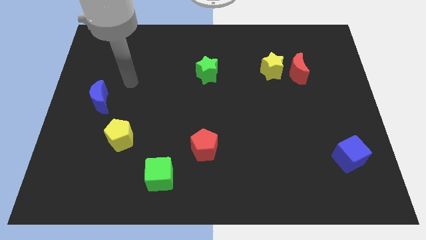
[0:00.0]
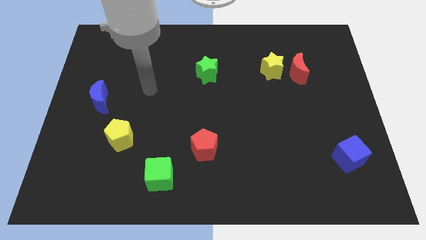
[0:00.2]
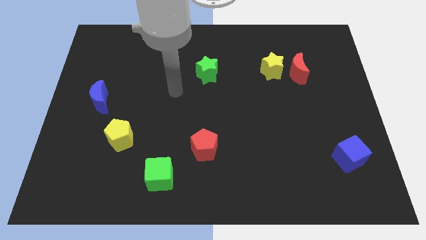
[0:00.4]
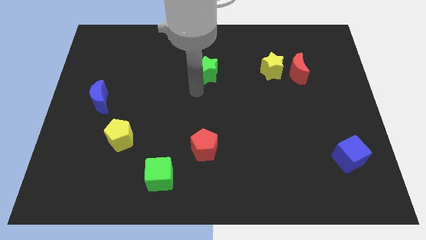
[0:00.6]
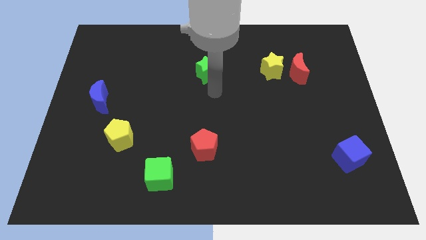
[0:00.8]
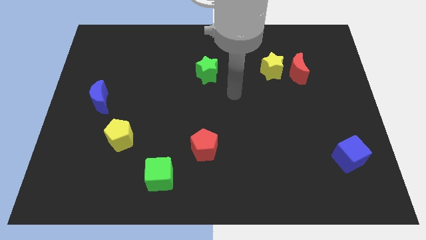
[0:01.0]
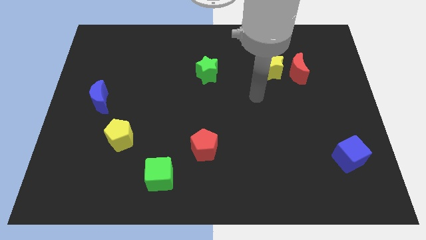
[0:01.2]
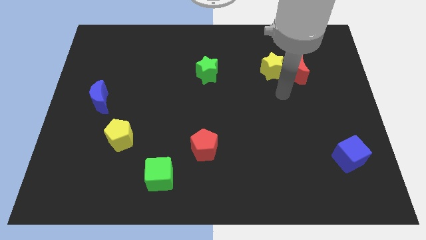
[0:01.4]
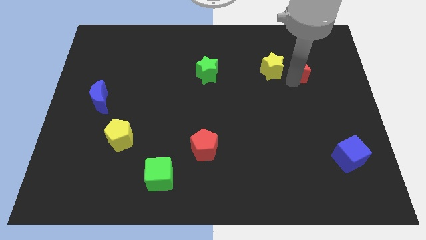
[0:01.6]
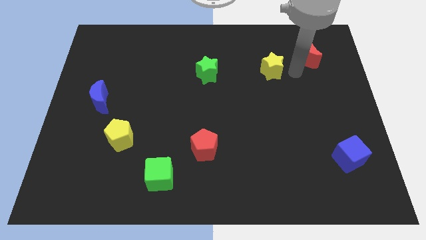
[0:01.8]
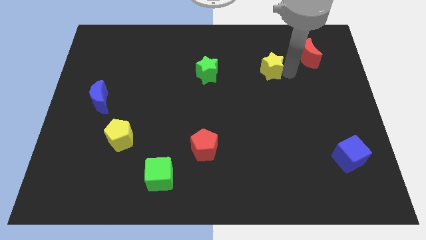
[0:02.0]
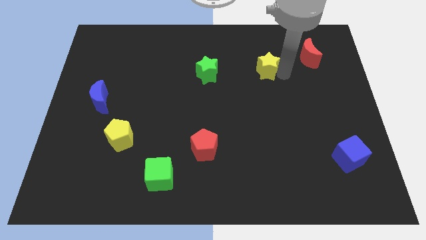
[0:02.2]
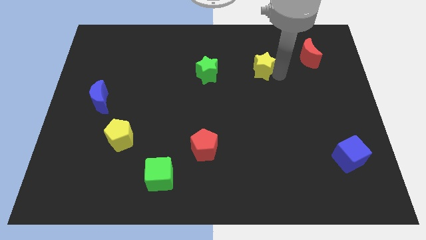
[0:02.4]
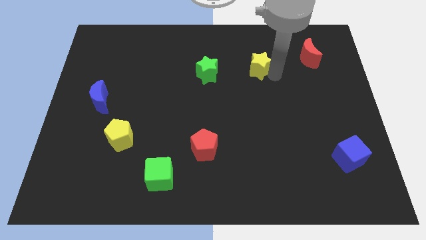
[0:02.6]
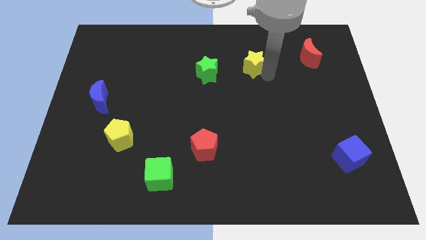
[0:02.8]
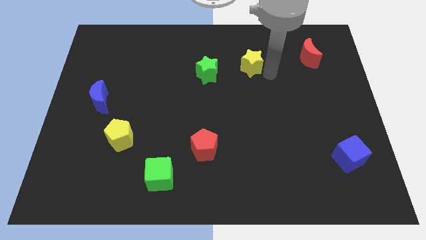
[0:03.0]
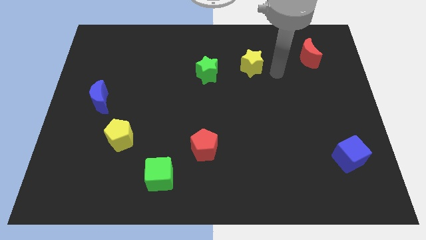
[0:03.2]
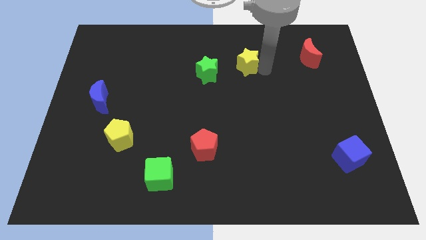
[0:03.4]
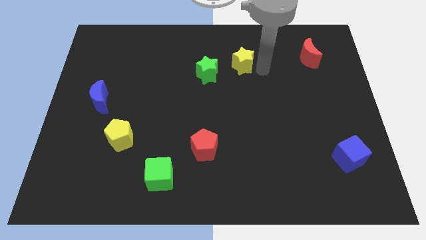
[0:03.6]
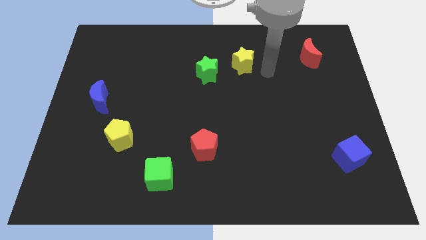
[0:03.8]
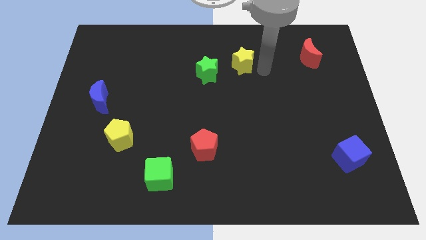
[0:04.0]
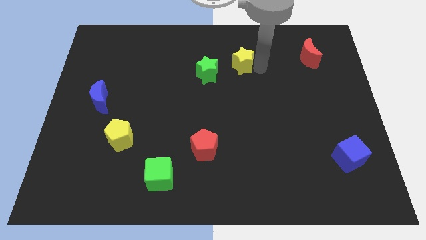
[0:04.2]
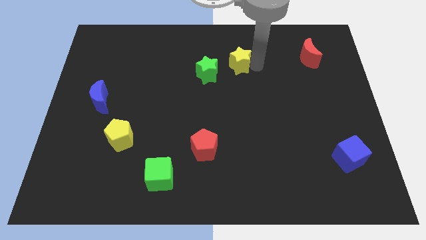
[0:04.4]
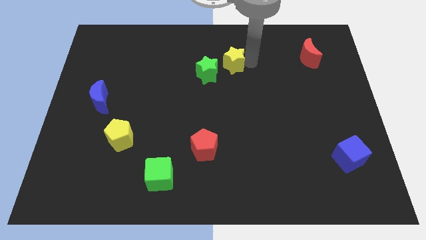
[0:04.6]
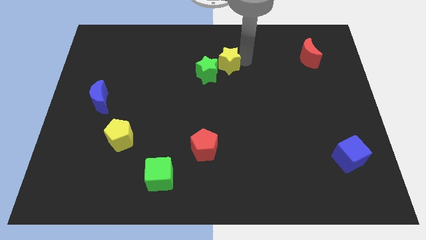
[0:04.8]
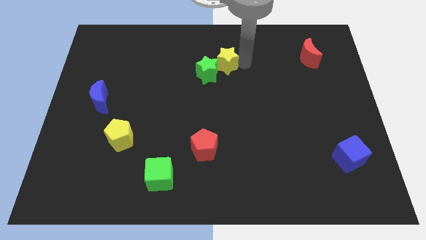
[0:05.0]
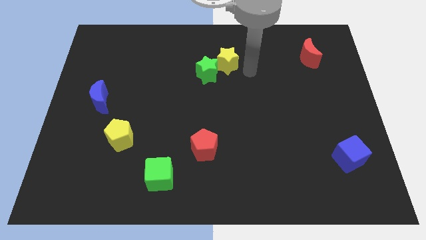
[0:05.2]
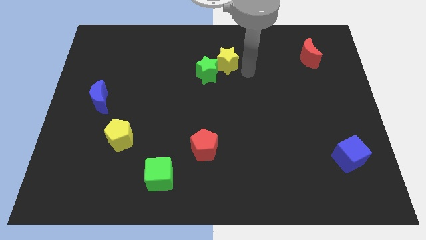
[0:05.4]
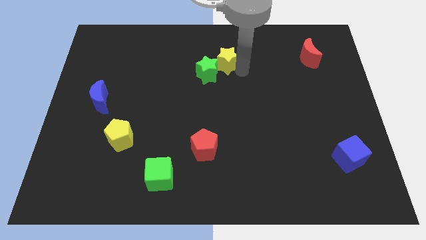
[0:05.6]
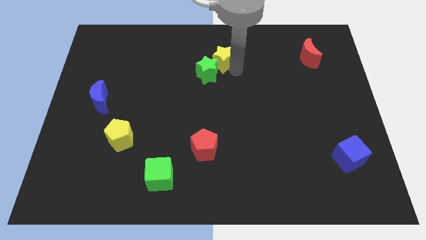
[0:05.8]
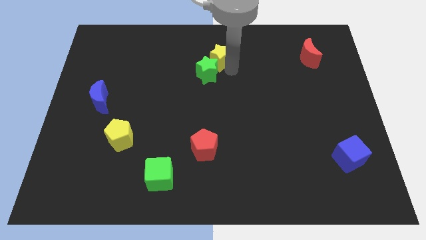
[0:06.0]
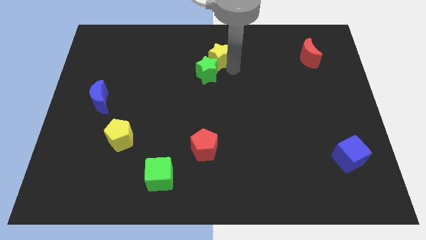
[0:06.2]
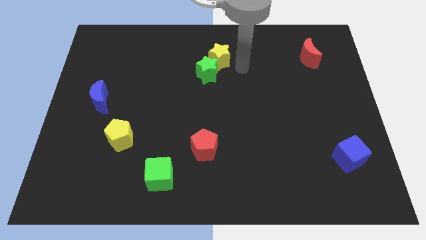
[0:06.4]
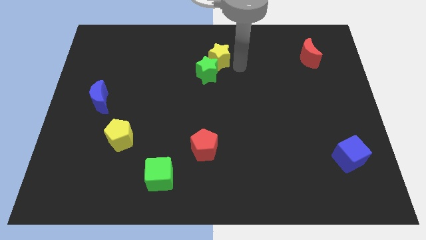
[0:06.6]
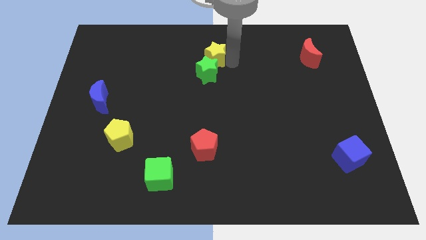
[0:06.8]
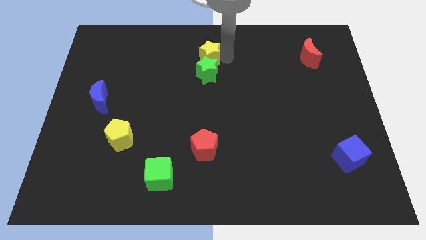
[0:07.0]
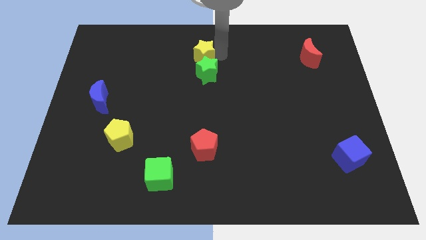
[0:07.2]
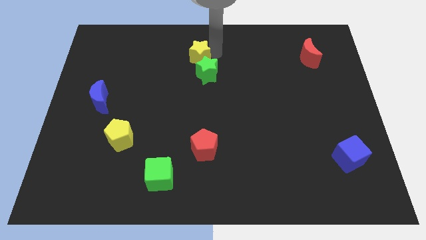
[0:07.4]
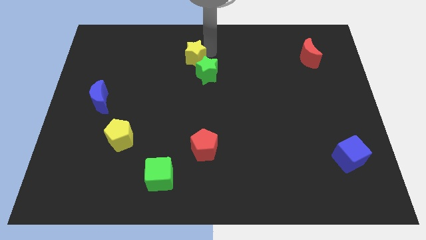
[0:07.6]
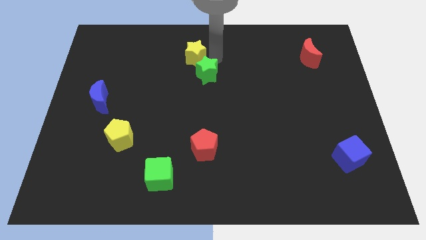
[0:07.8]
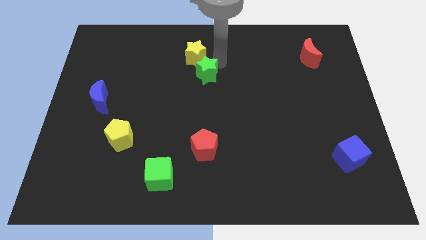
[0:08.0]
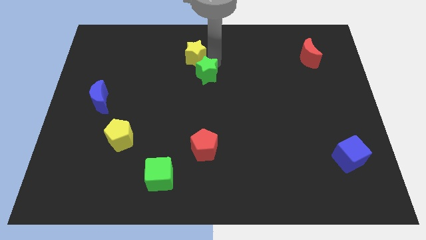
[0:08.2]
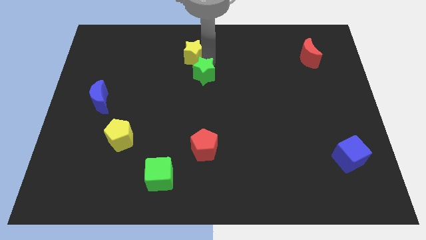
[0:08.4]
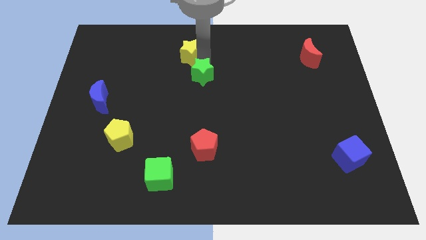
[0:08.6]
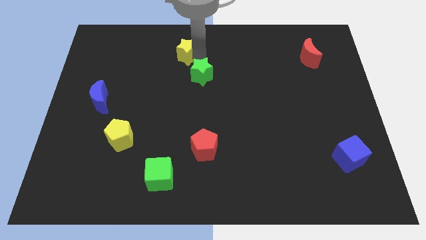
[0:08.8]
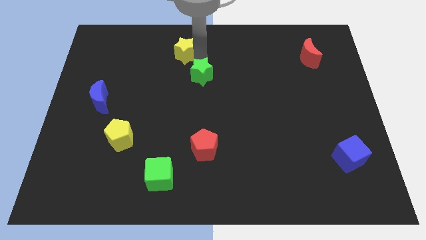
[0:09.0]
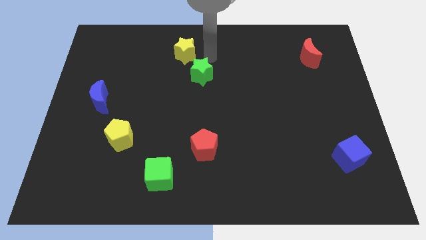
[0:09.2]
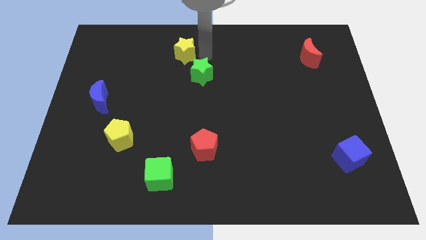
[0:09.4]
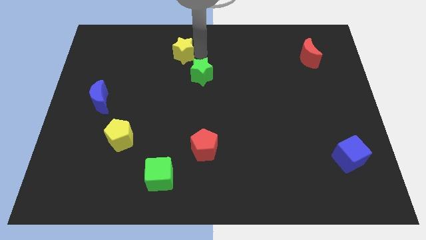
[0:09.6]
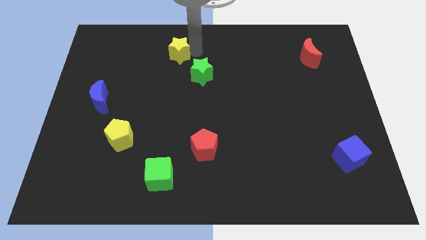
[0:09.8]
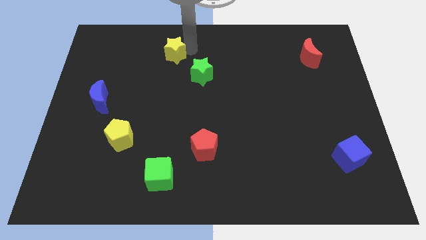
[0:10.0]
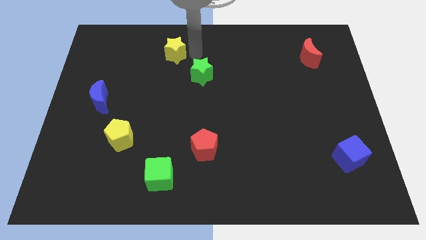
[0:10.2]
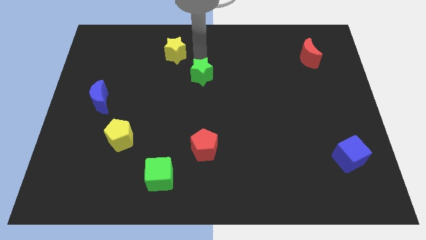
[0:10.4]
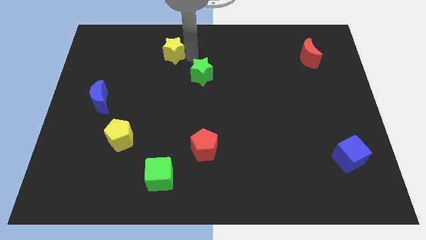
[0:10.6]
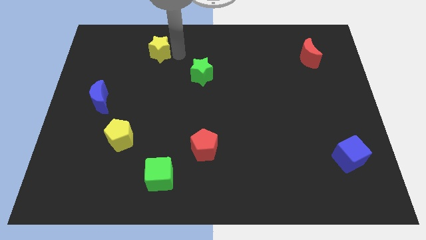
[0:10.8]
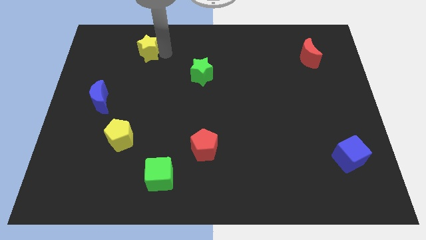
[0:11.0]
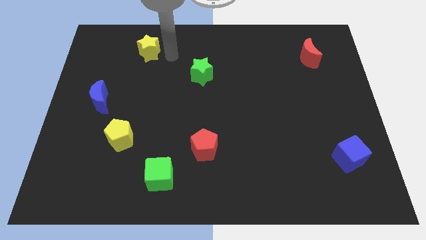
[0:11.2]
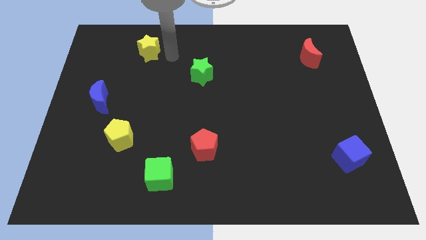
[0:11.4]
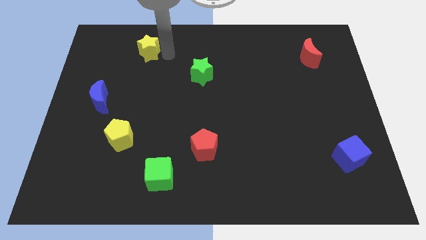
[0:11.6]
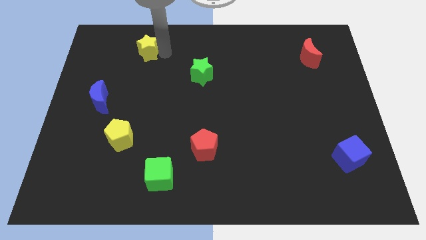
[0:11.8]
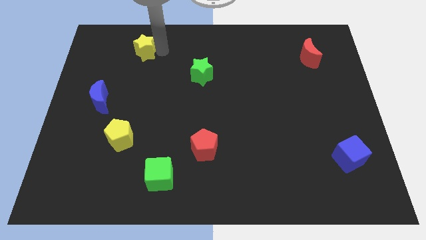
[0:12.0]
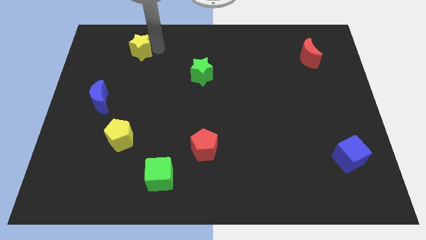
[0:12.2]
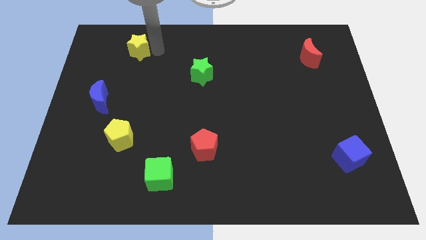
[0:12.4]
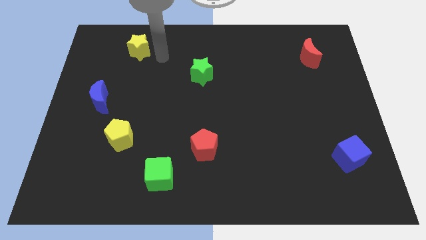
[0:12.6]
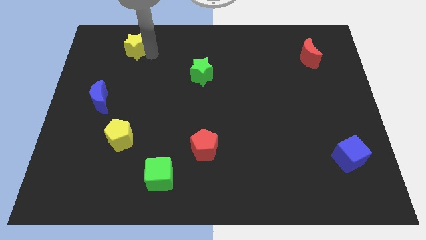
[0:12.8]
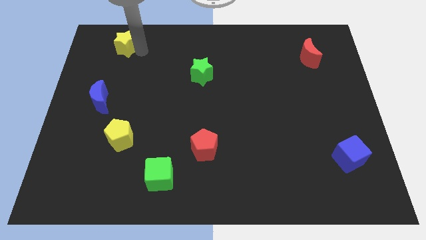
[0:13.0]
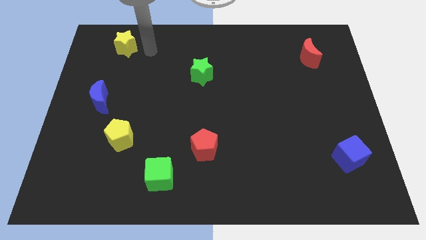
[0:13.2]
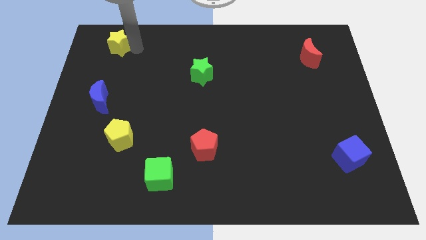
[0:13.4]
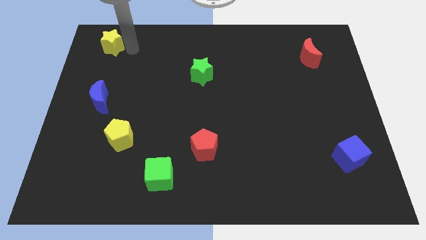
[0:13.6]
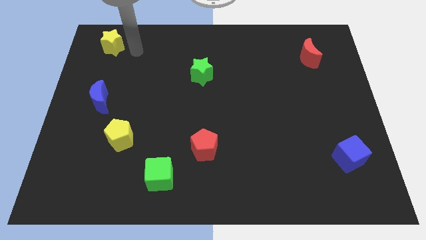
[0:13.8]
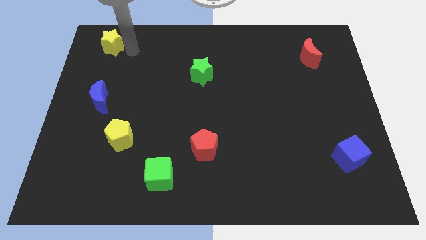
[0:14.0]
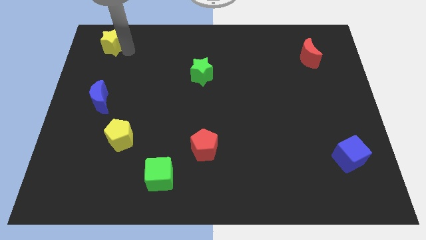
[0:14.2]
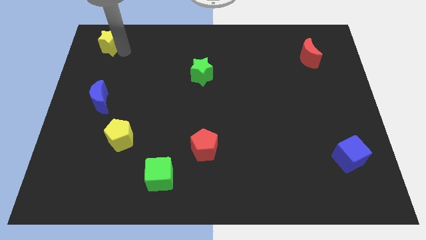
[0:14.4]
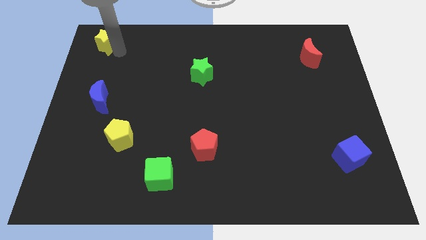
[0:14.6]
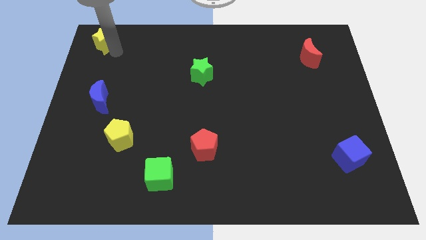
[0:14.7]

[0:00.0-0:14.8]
put the yellow star to the top left
